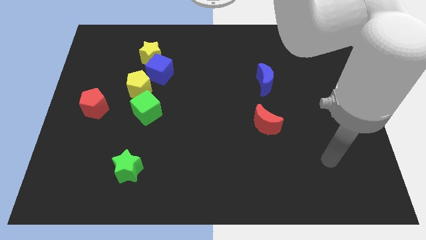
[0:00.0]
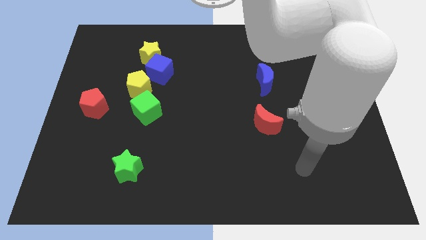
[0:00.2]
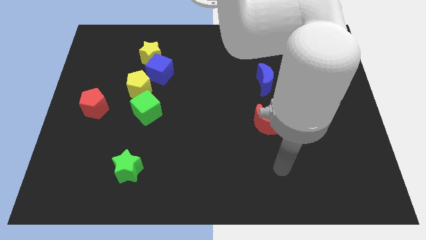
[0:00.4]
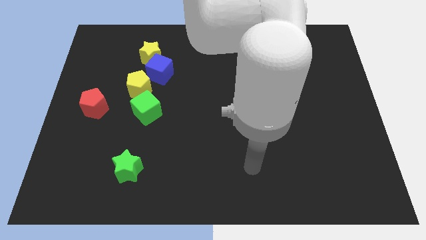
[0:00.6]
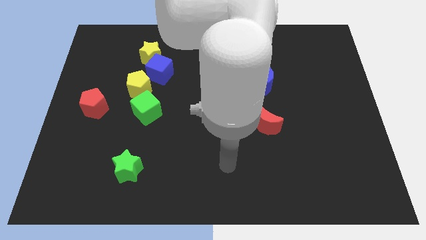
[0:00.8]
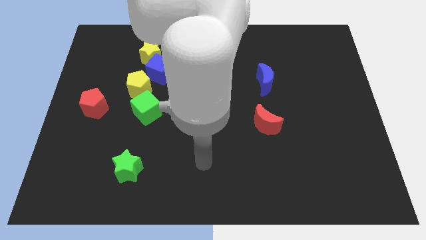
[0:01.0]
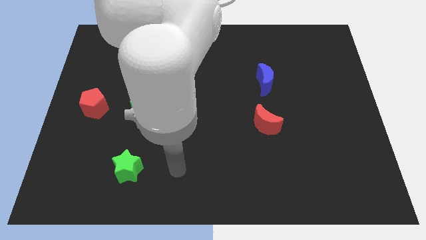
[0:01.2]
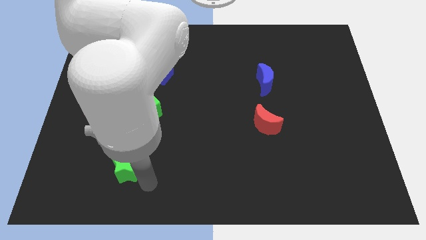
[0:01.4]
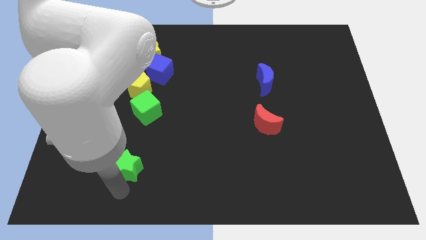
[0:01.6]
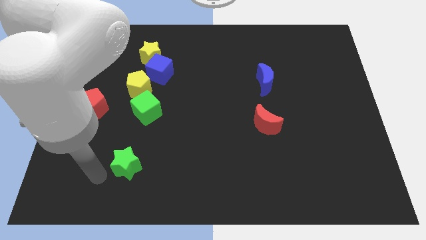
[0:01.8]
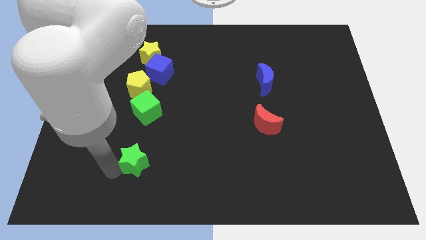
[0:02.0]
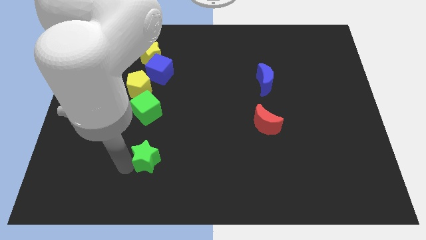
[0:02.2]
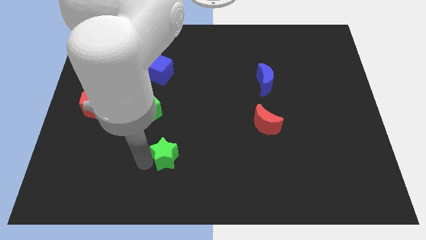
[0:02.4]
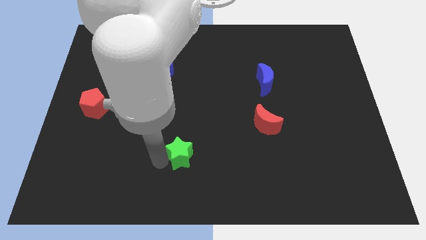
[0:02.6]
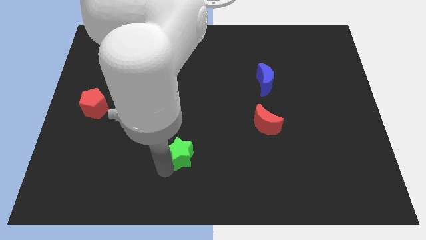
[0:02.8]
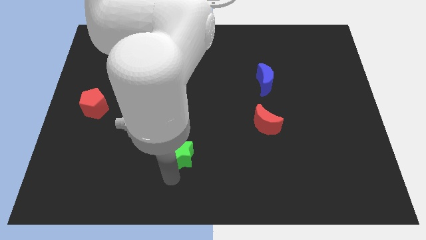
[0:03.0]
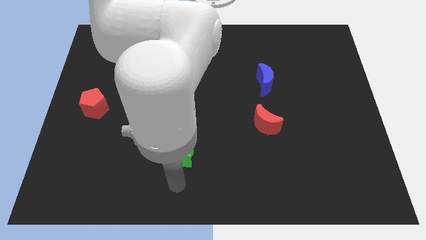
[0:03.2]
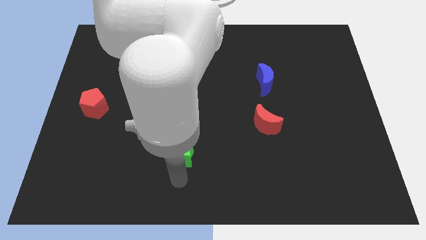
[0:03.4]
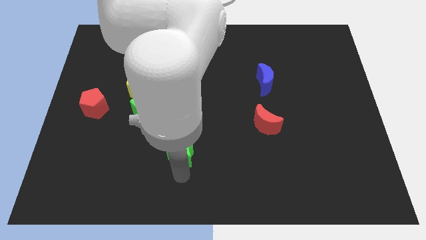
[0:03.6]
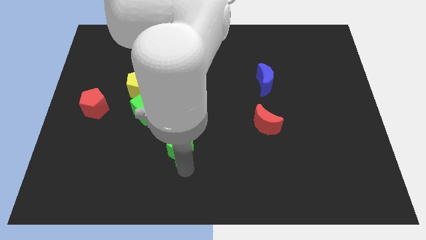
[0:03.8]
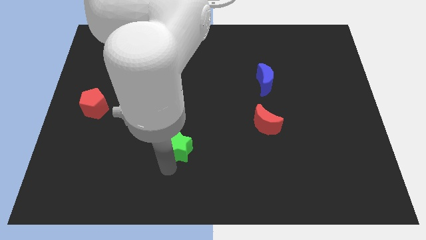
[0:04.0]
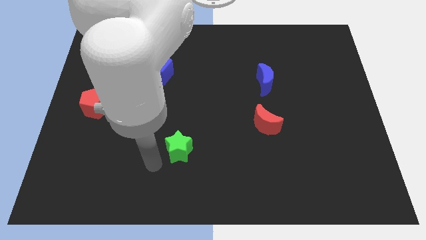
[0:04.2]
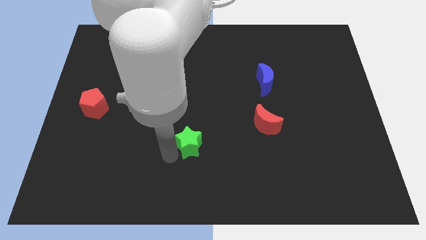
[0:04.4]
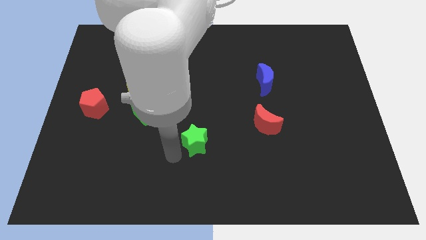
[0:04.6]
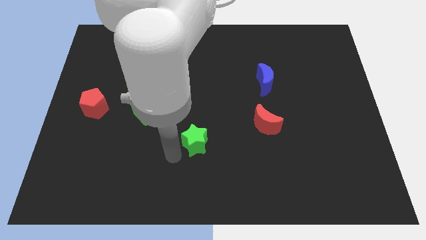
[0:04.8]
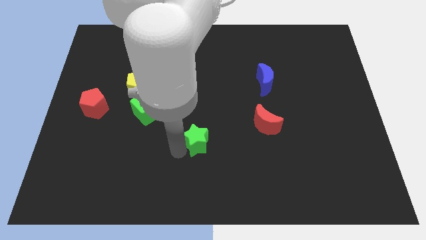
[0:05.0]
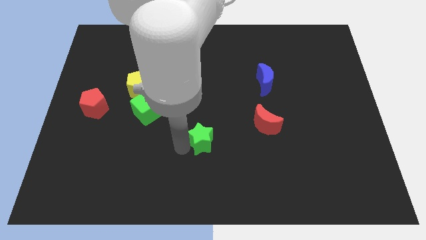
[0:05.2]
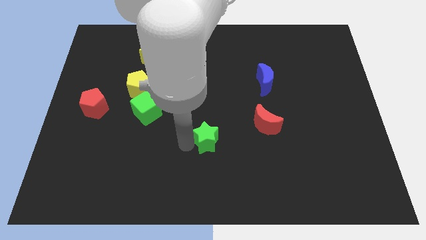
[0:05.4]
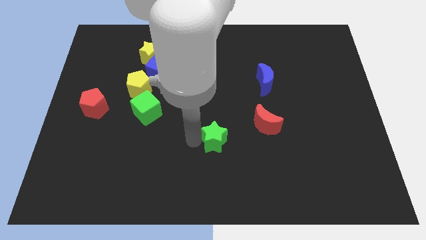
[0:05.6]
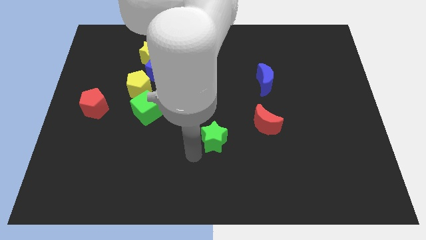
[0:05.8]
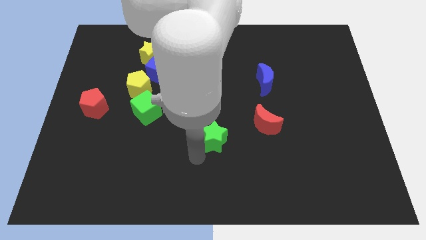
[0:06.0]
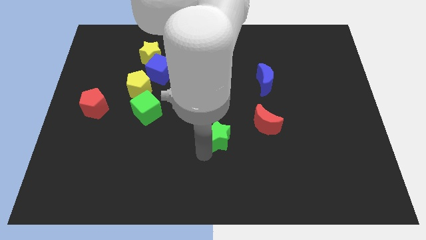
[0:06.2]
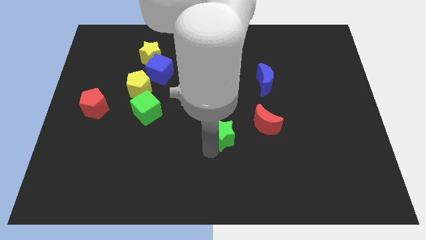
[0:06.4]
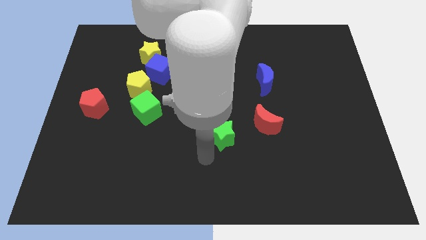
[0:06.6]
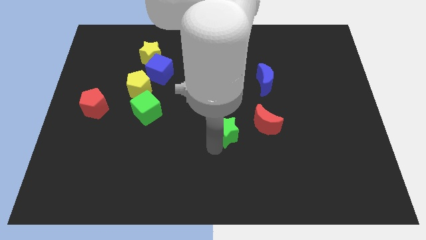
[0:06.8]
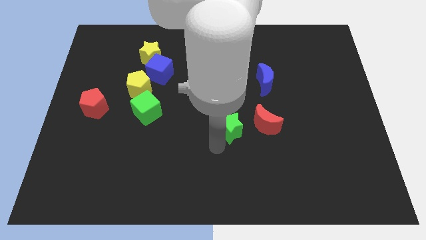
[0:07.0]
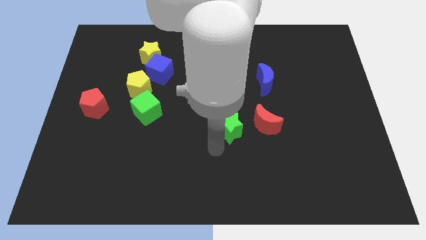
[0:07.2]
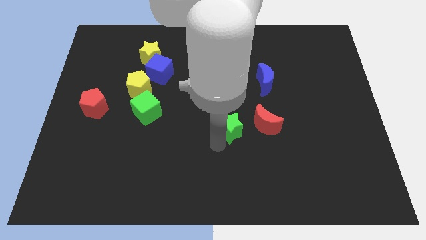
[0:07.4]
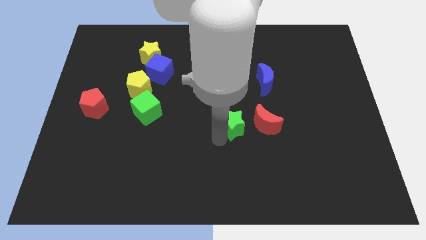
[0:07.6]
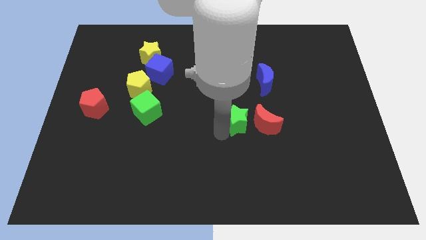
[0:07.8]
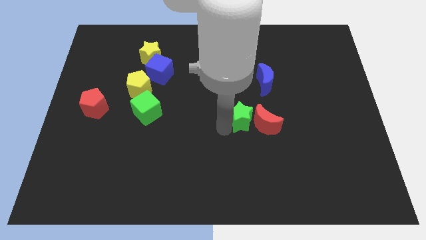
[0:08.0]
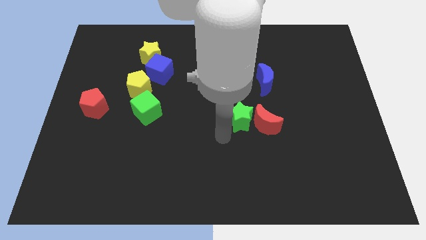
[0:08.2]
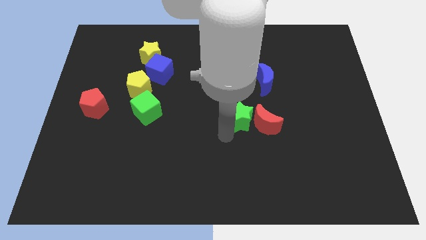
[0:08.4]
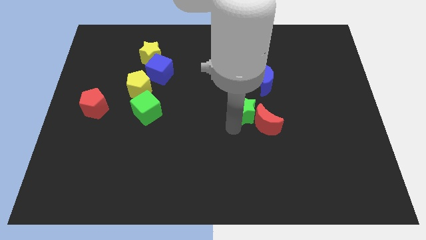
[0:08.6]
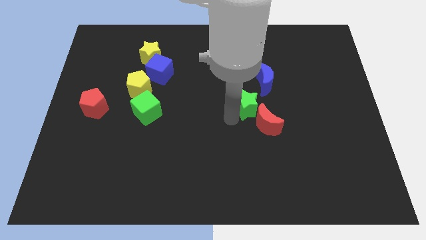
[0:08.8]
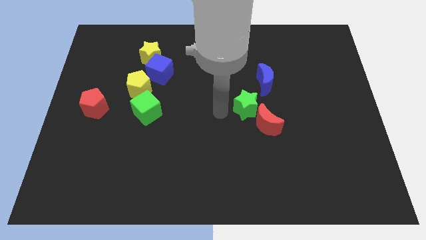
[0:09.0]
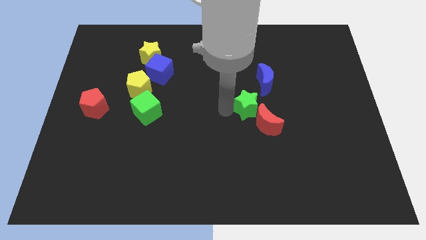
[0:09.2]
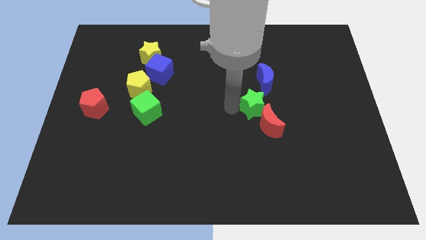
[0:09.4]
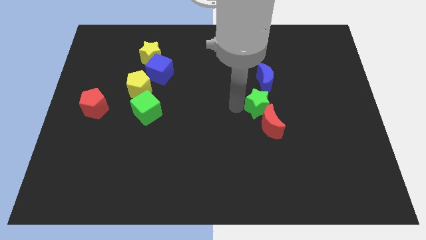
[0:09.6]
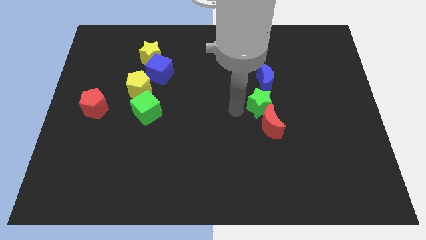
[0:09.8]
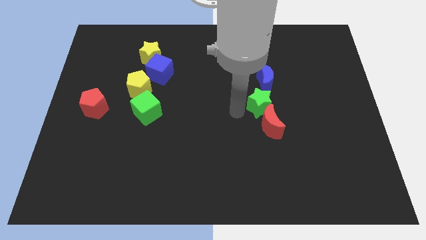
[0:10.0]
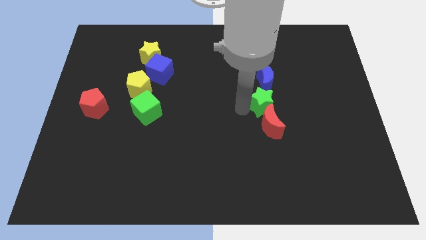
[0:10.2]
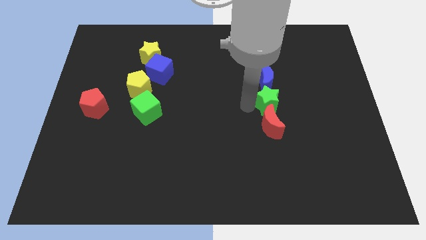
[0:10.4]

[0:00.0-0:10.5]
push the green star to the bottom right of the blue moon

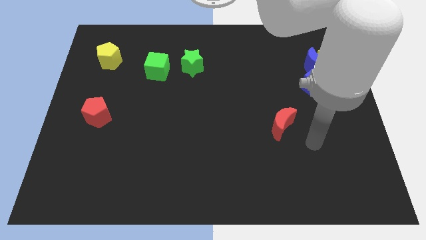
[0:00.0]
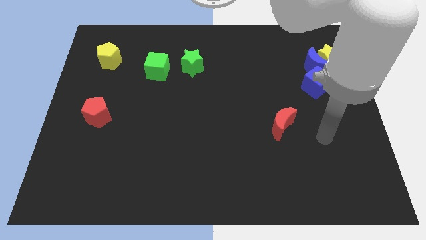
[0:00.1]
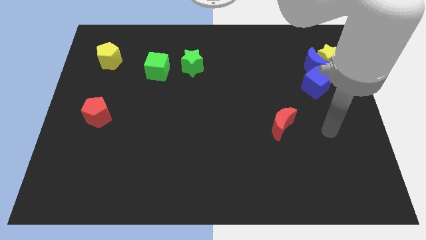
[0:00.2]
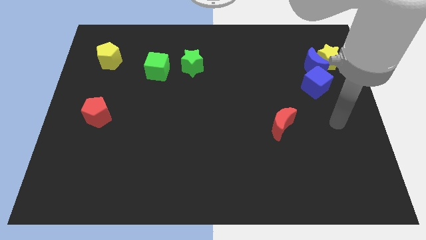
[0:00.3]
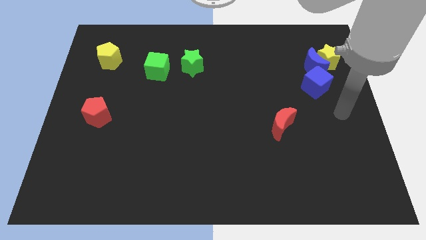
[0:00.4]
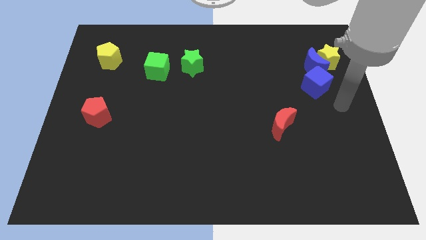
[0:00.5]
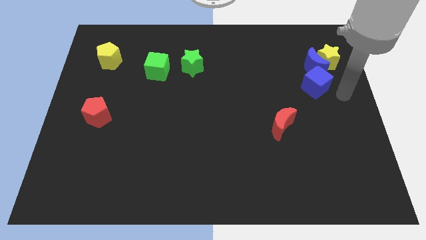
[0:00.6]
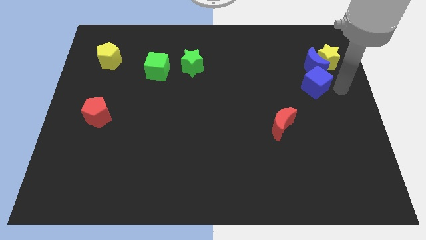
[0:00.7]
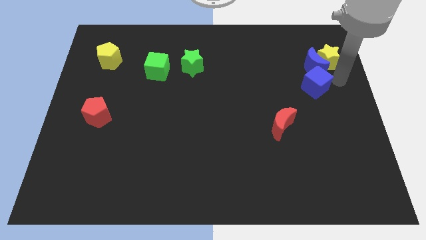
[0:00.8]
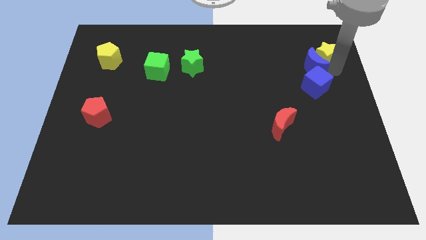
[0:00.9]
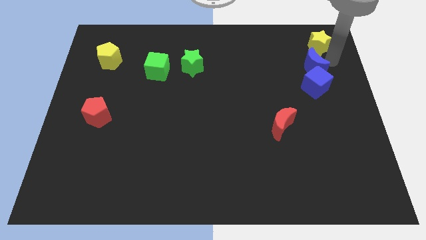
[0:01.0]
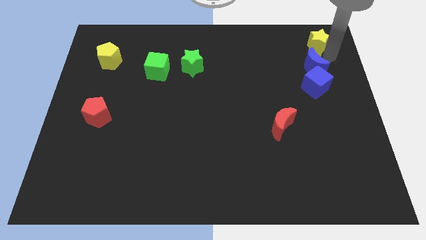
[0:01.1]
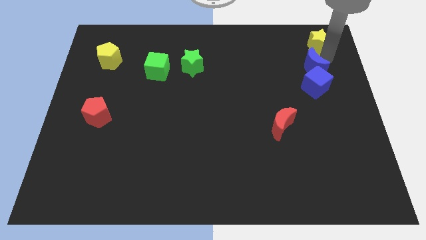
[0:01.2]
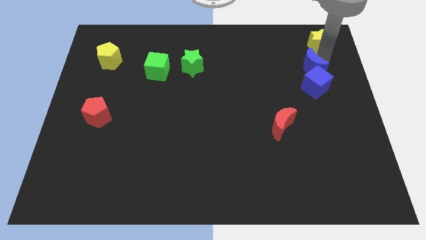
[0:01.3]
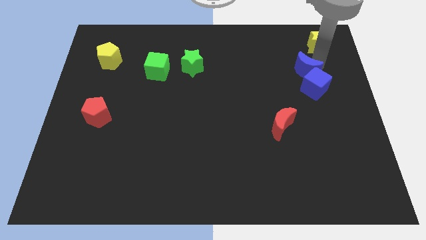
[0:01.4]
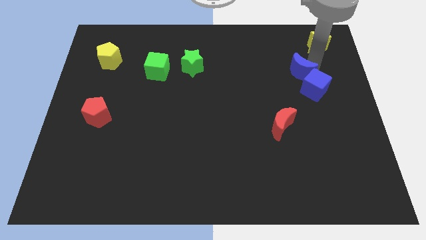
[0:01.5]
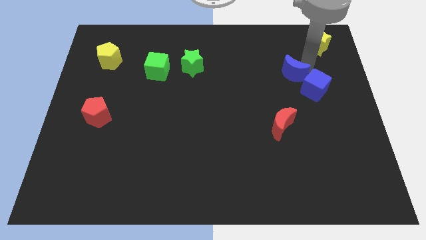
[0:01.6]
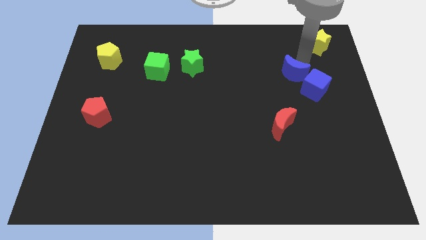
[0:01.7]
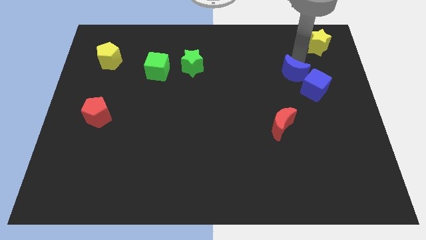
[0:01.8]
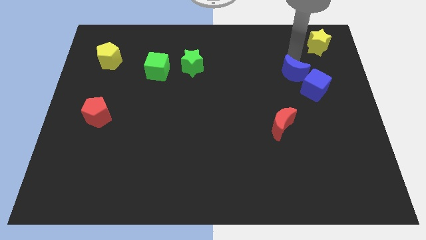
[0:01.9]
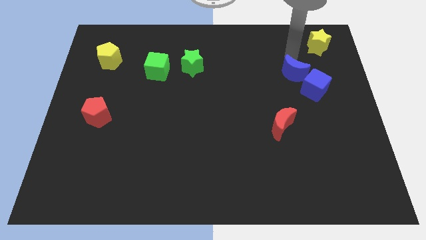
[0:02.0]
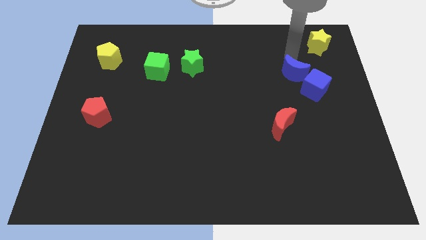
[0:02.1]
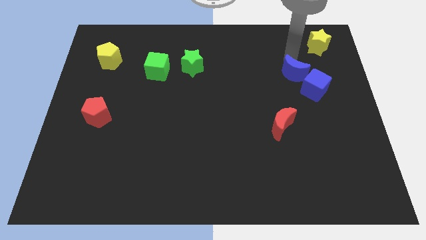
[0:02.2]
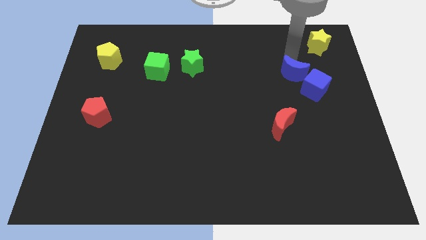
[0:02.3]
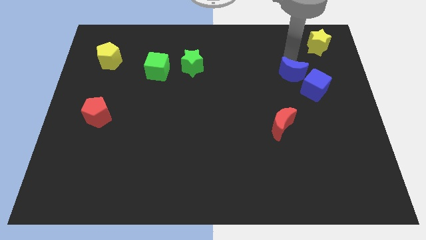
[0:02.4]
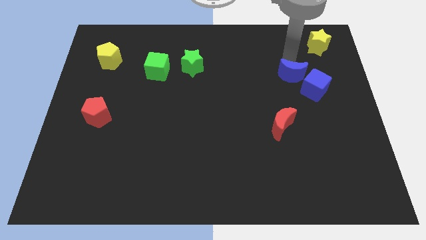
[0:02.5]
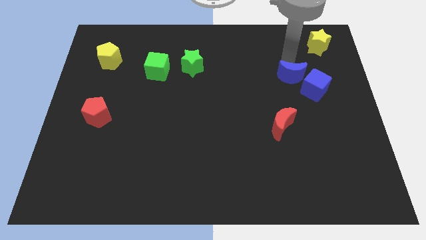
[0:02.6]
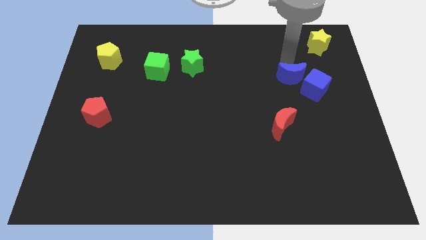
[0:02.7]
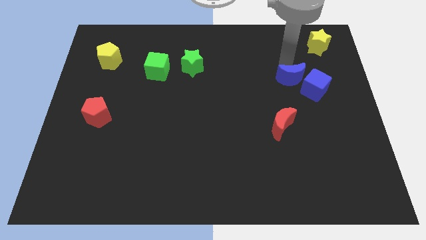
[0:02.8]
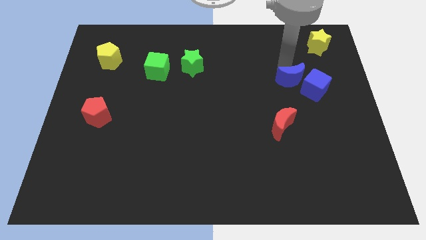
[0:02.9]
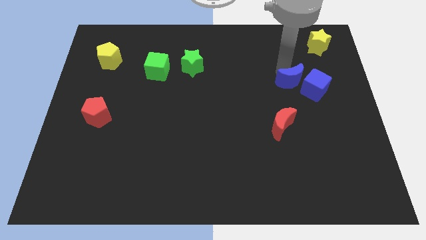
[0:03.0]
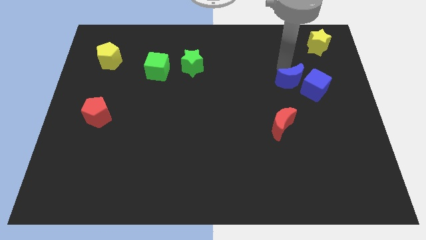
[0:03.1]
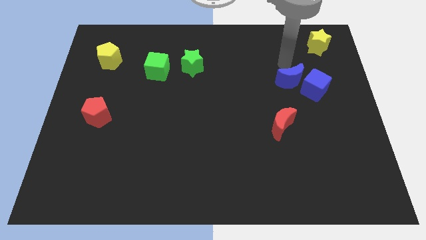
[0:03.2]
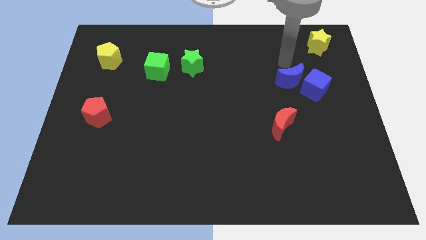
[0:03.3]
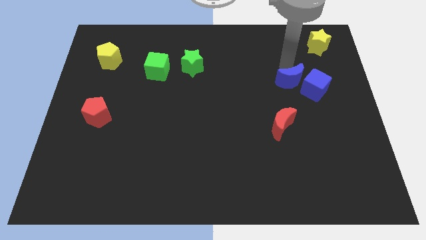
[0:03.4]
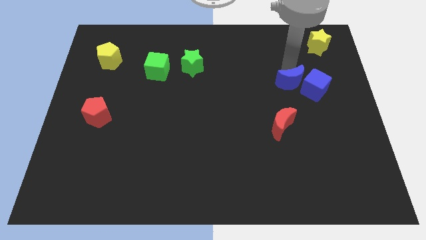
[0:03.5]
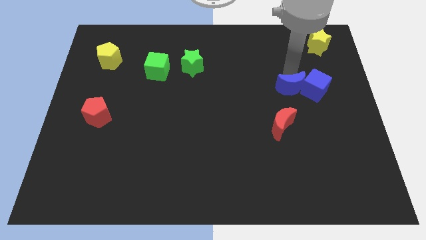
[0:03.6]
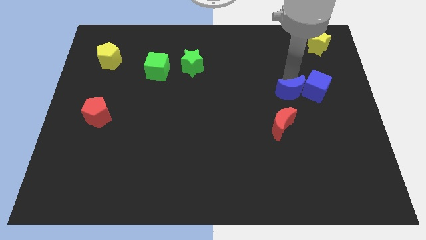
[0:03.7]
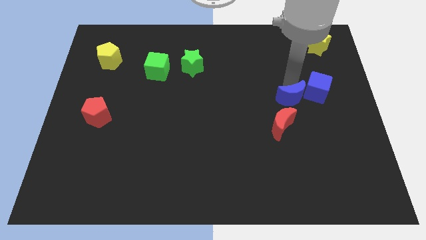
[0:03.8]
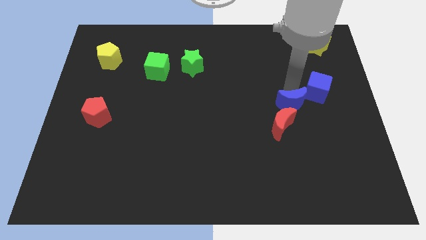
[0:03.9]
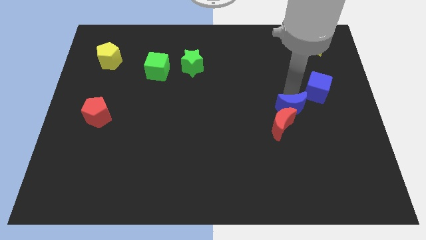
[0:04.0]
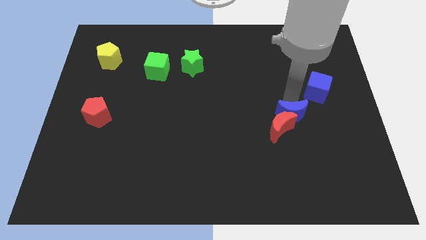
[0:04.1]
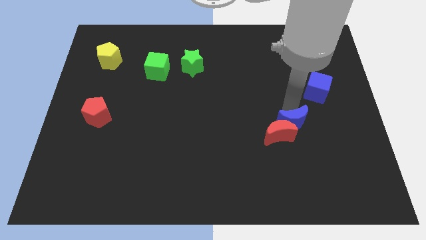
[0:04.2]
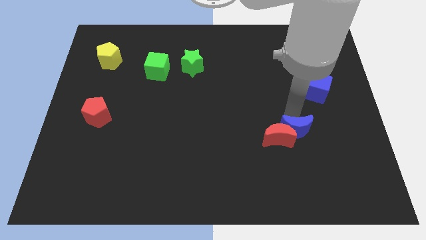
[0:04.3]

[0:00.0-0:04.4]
put the blue moon to the bottom right of the red moon
